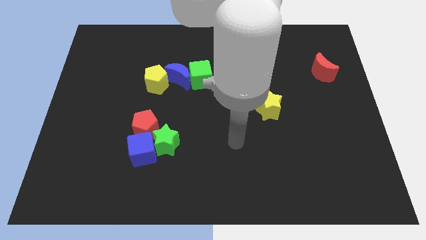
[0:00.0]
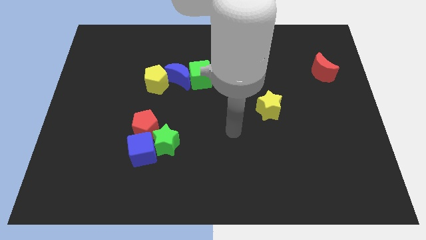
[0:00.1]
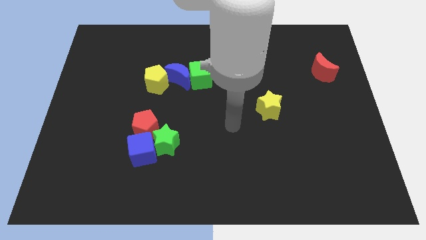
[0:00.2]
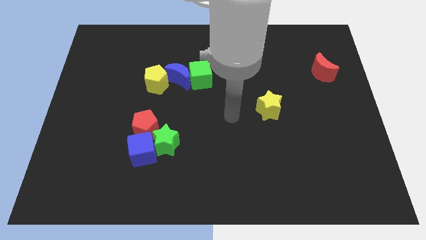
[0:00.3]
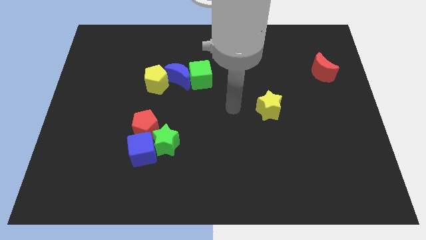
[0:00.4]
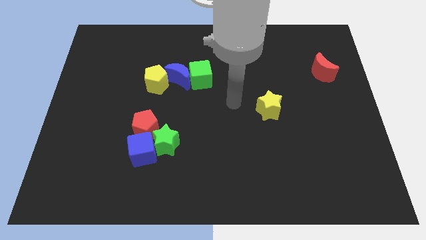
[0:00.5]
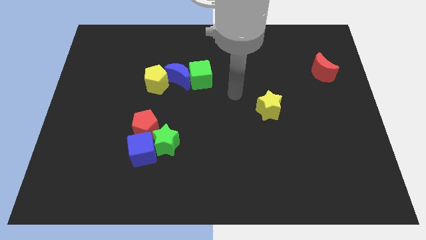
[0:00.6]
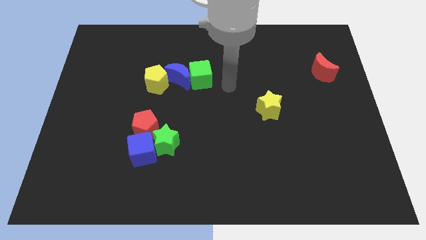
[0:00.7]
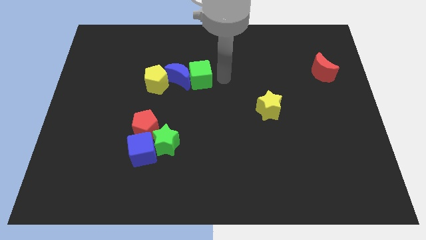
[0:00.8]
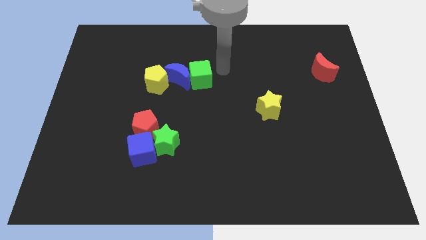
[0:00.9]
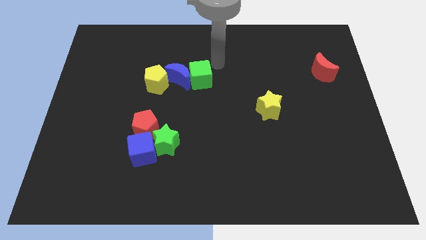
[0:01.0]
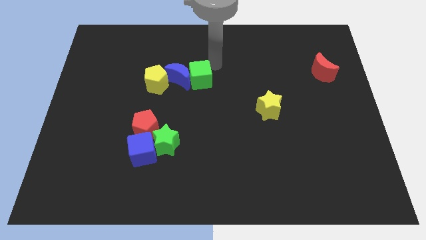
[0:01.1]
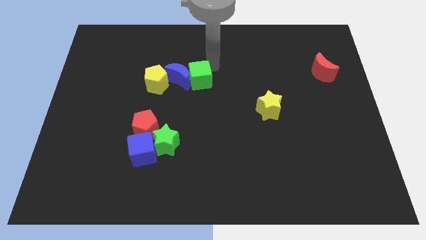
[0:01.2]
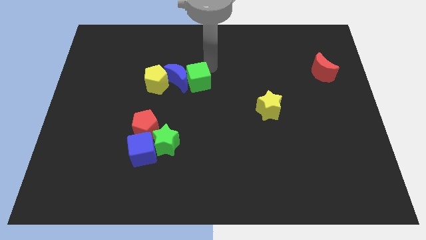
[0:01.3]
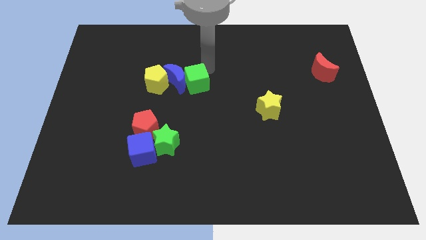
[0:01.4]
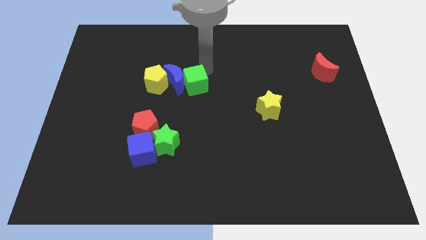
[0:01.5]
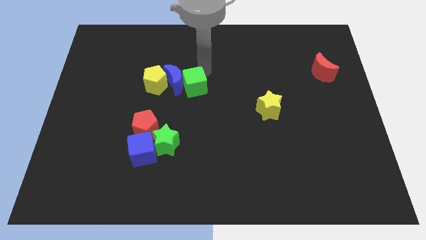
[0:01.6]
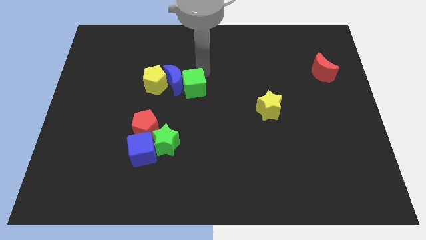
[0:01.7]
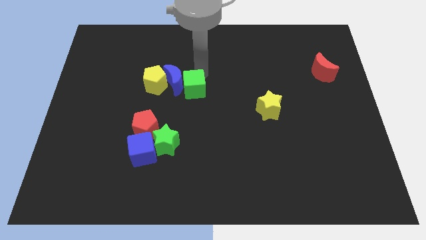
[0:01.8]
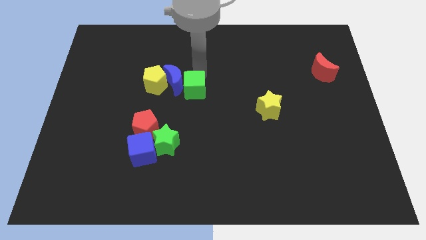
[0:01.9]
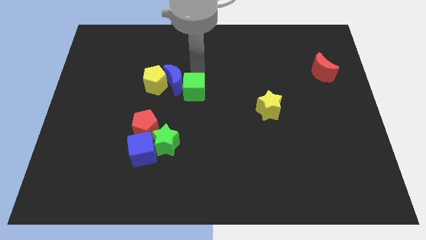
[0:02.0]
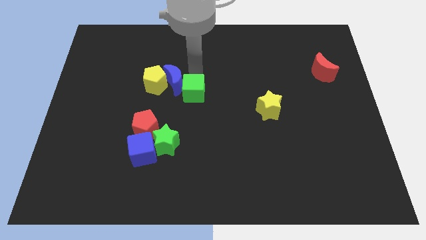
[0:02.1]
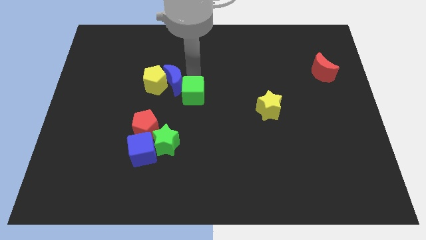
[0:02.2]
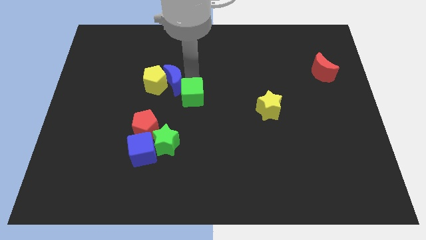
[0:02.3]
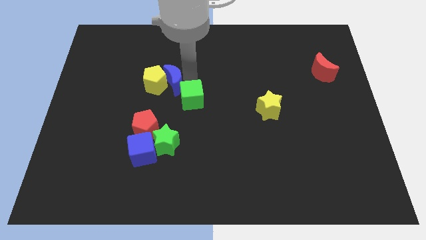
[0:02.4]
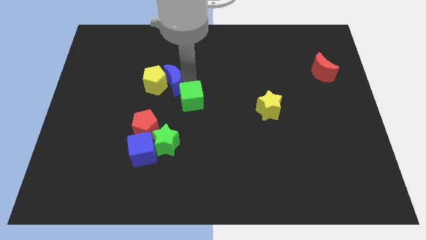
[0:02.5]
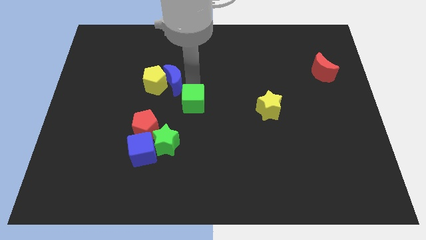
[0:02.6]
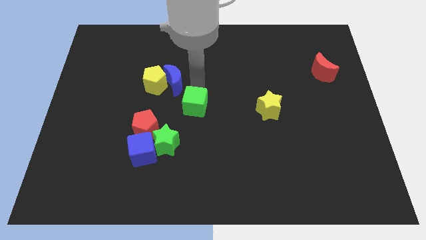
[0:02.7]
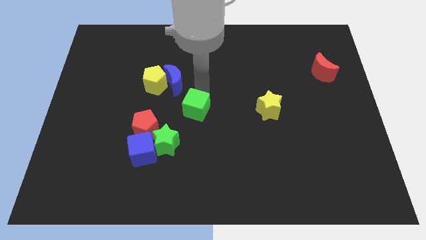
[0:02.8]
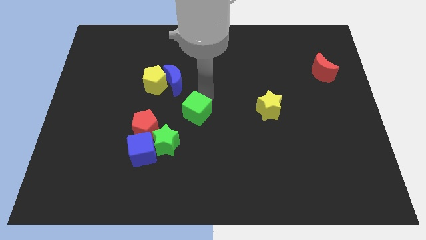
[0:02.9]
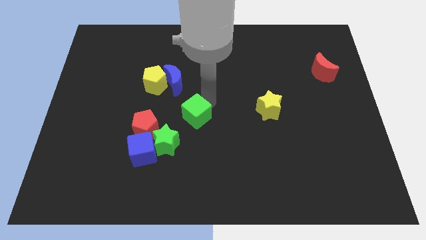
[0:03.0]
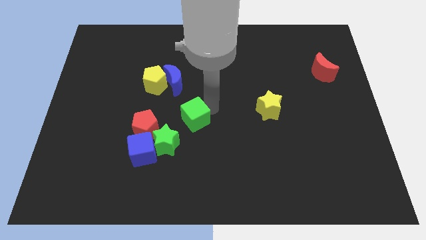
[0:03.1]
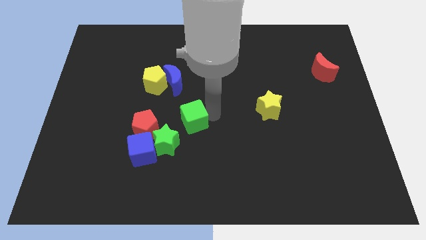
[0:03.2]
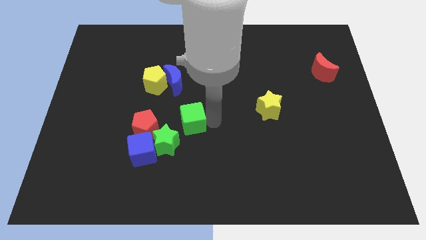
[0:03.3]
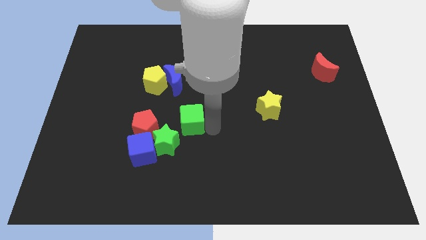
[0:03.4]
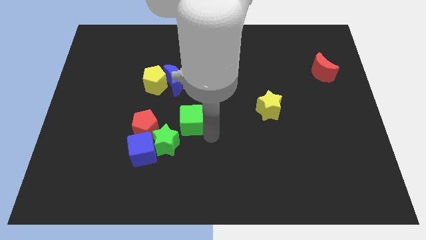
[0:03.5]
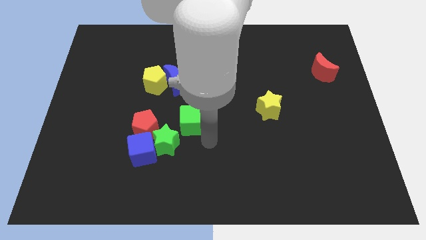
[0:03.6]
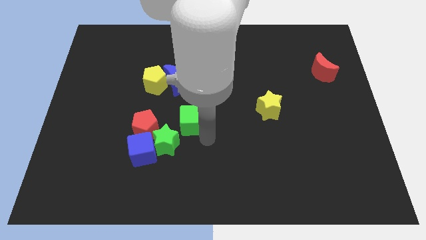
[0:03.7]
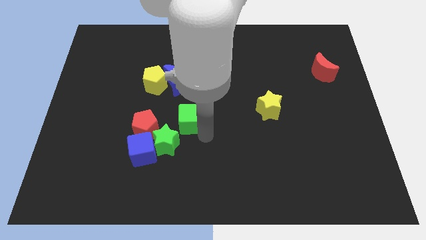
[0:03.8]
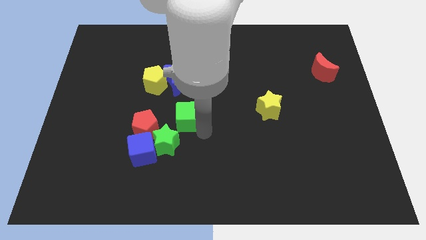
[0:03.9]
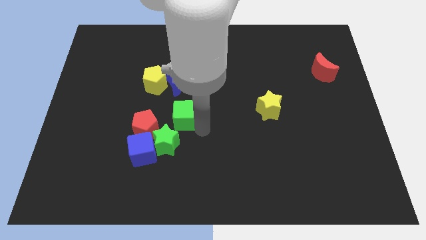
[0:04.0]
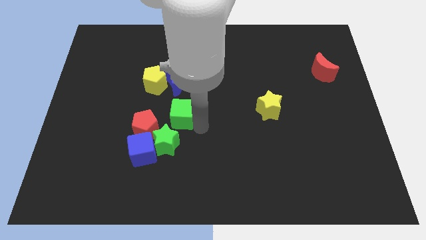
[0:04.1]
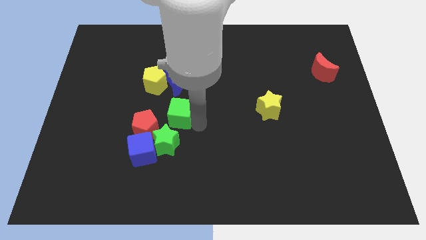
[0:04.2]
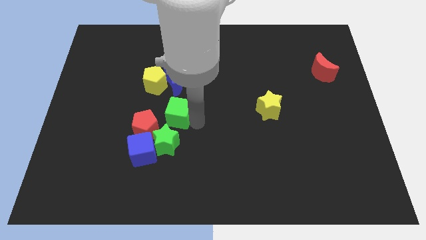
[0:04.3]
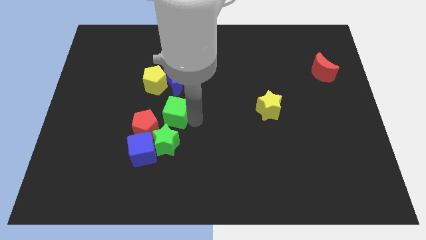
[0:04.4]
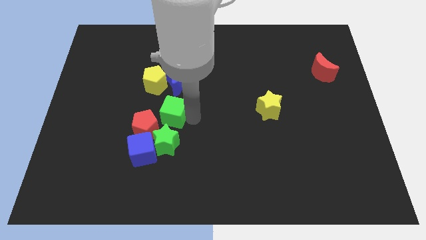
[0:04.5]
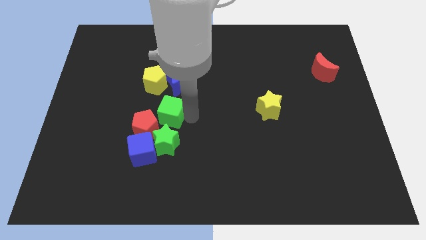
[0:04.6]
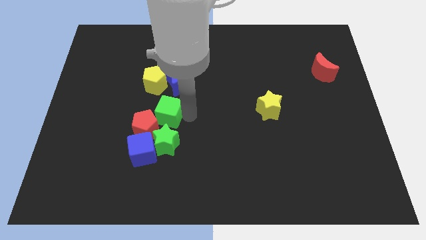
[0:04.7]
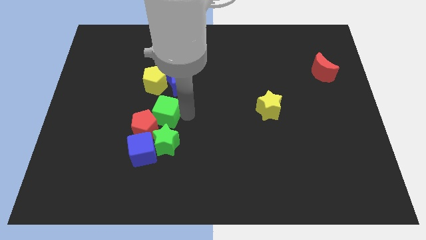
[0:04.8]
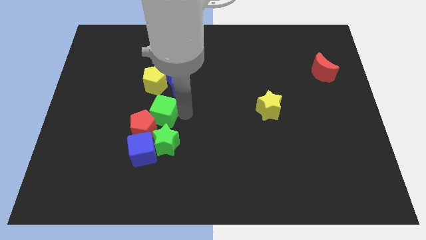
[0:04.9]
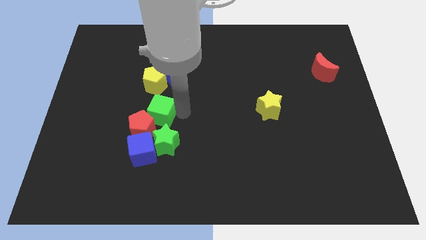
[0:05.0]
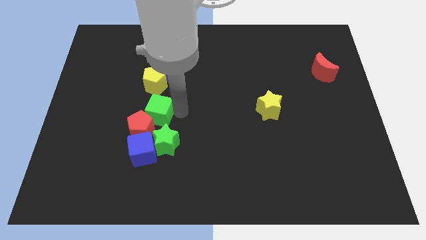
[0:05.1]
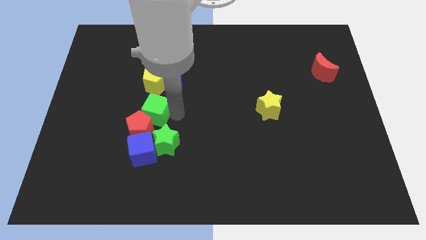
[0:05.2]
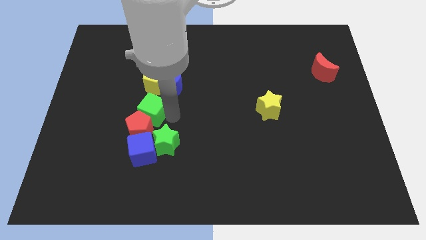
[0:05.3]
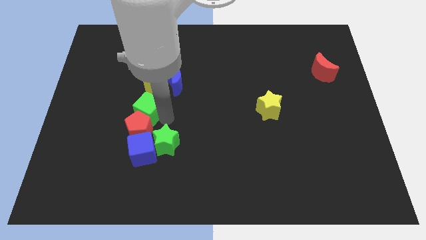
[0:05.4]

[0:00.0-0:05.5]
move the green cube diagonally up and to the left of the red pentagon

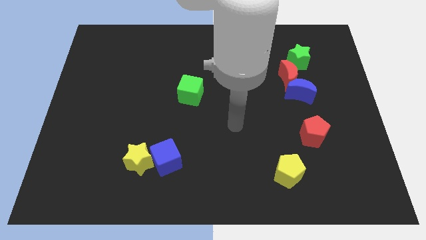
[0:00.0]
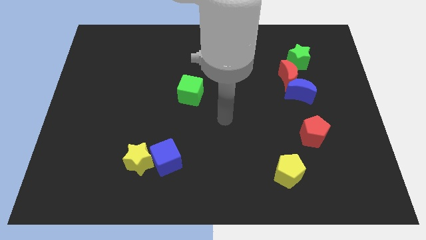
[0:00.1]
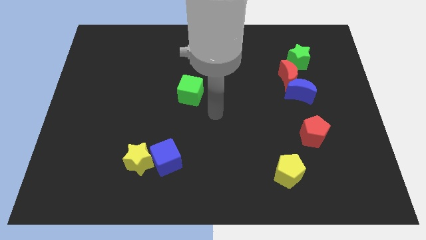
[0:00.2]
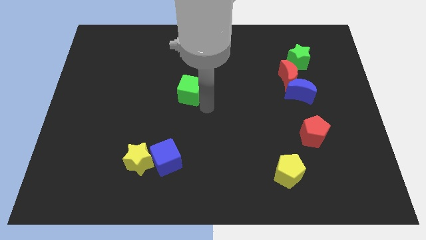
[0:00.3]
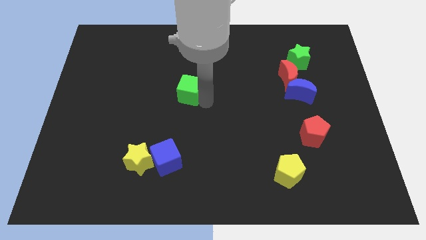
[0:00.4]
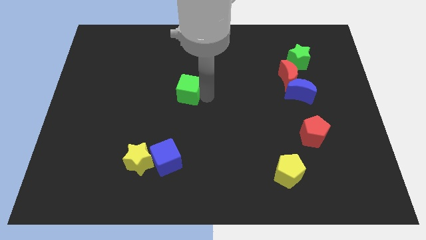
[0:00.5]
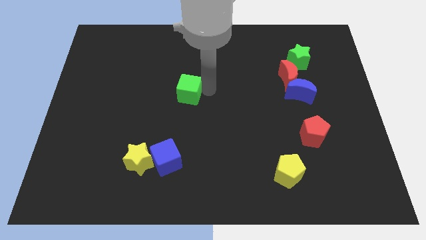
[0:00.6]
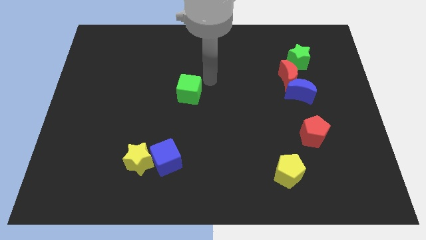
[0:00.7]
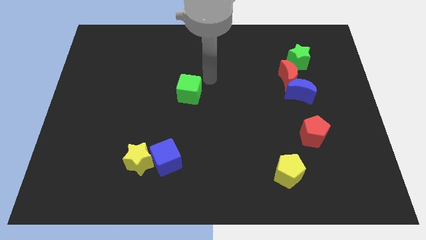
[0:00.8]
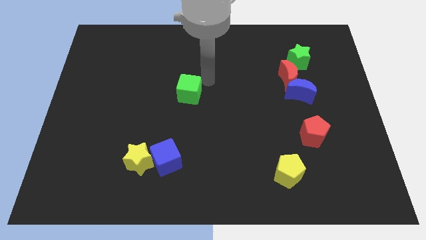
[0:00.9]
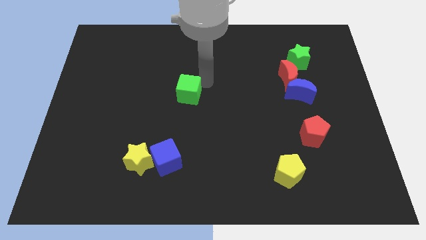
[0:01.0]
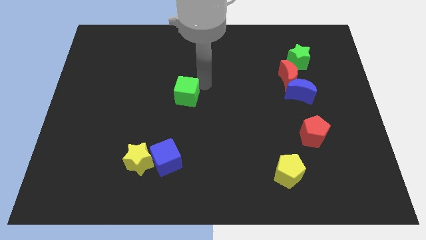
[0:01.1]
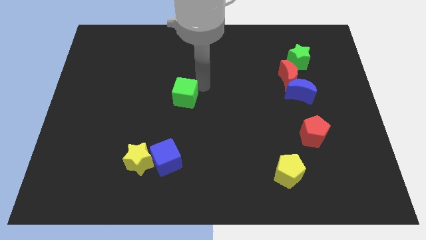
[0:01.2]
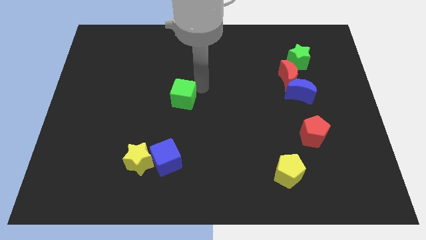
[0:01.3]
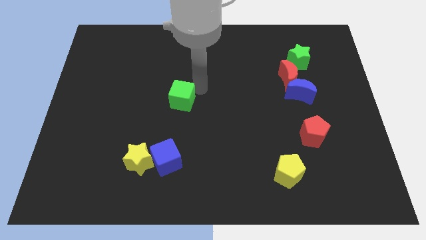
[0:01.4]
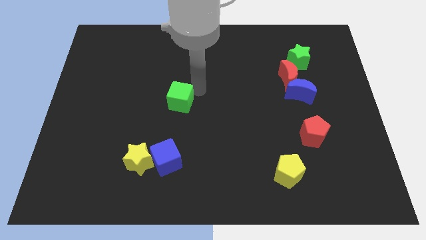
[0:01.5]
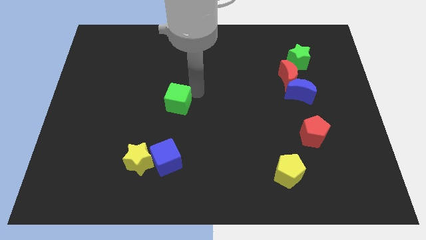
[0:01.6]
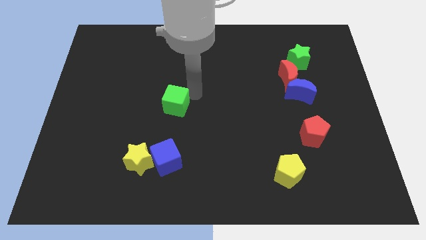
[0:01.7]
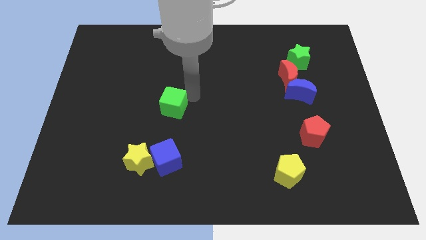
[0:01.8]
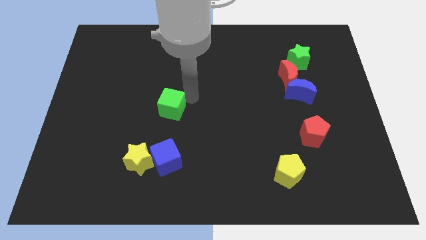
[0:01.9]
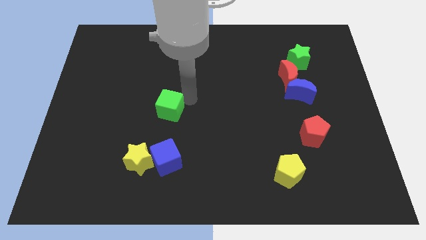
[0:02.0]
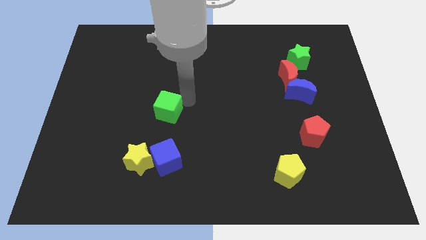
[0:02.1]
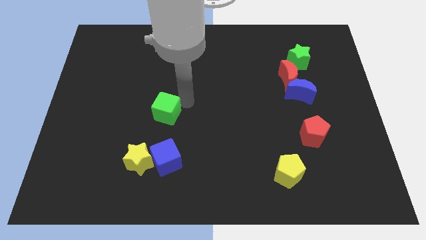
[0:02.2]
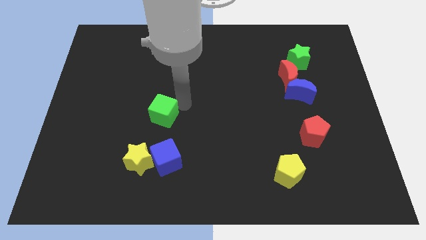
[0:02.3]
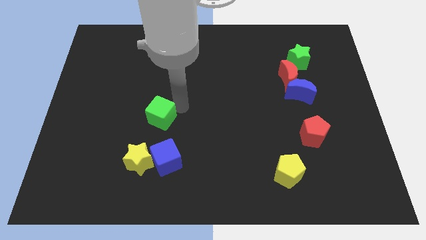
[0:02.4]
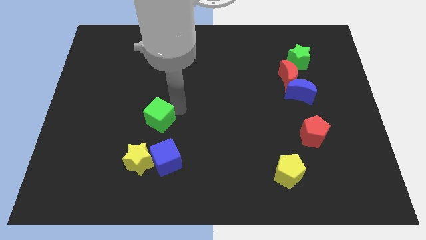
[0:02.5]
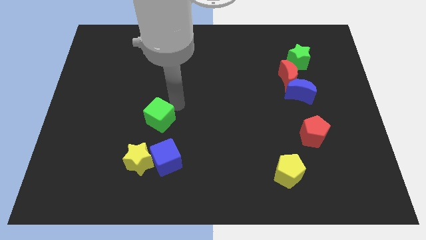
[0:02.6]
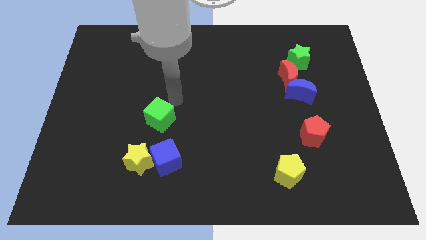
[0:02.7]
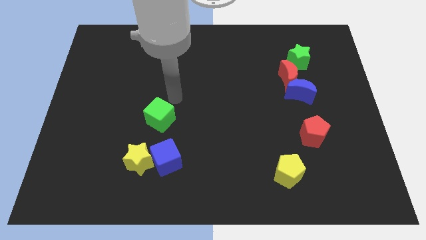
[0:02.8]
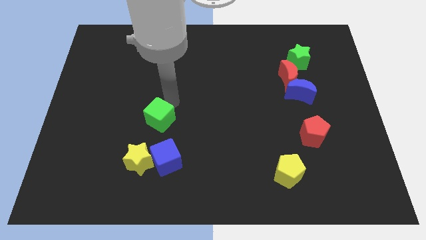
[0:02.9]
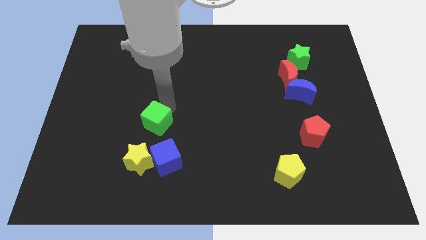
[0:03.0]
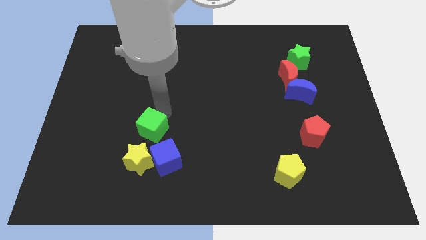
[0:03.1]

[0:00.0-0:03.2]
slide the green cube to the top left side of the blue cube
